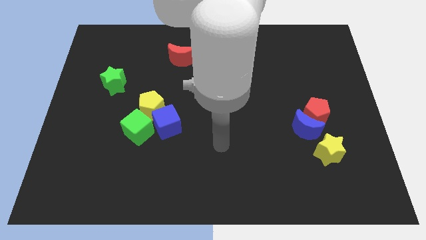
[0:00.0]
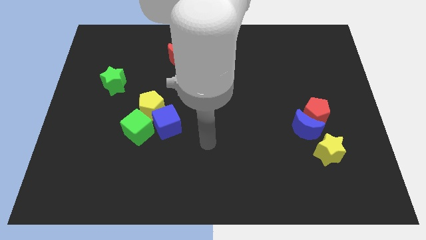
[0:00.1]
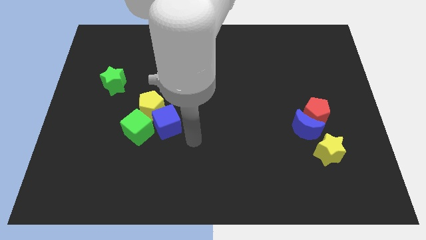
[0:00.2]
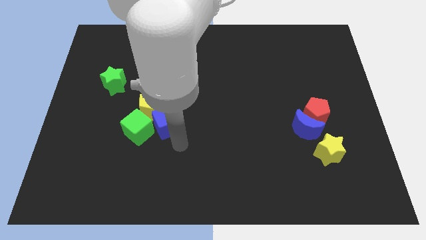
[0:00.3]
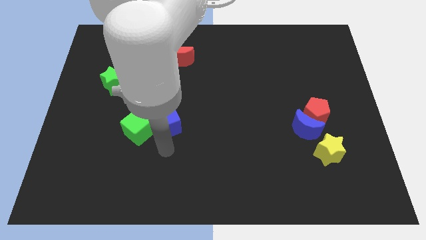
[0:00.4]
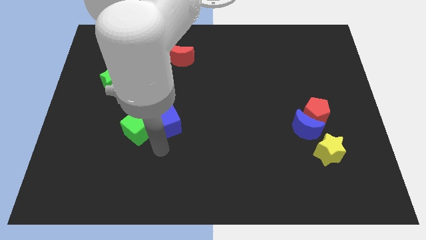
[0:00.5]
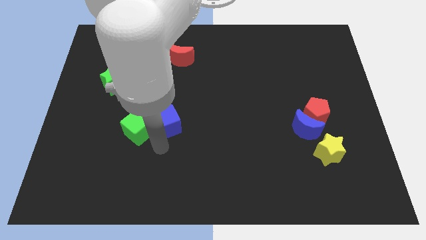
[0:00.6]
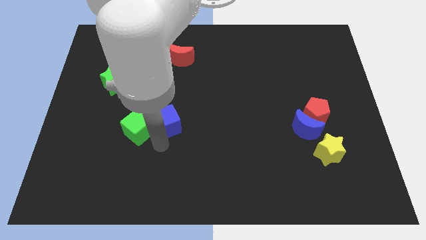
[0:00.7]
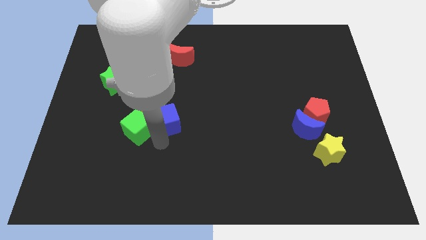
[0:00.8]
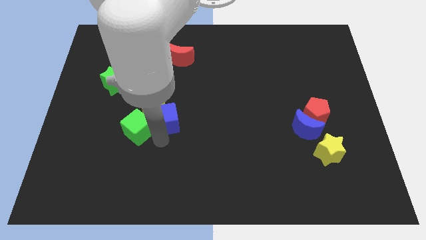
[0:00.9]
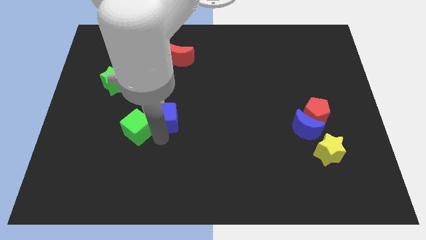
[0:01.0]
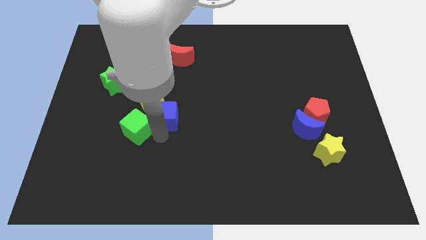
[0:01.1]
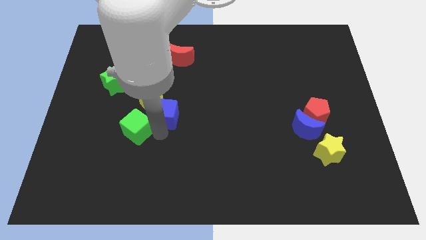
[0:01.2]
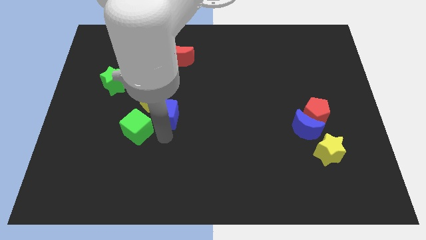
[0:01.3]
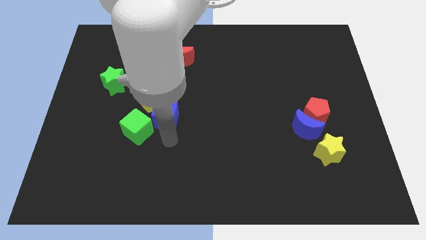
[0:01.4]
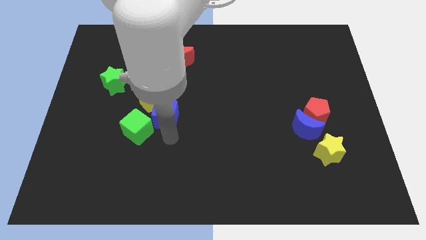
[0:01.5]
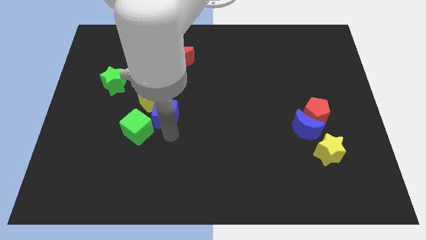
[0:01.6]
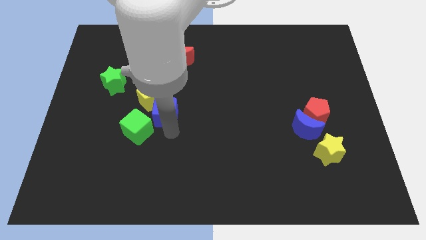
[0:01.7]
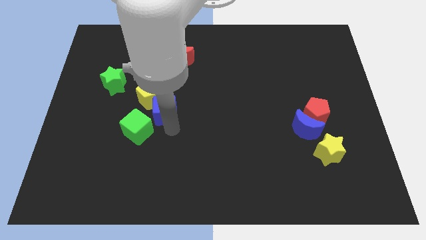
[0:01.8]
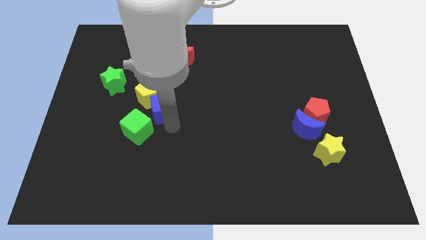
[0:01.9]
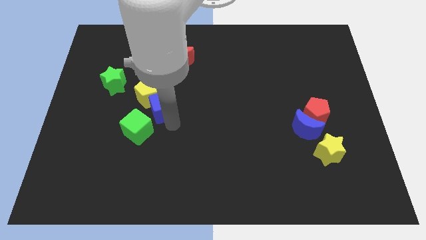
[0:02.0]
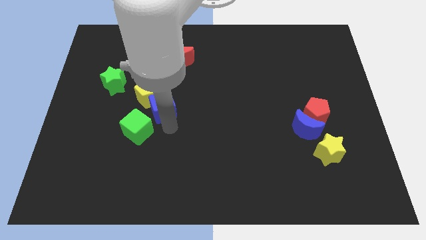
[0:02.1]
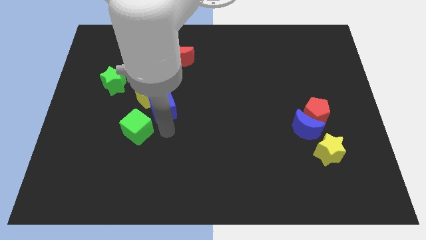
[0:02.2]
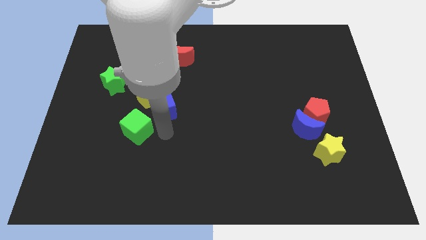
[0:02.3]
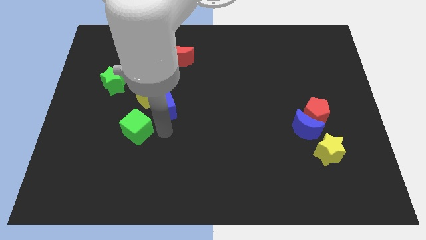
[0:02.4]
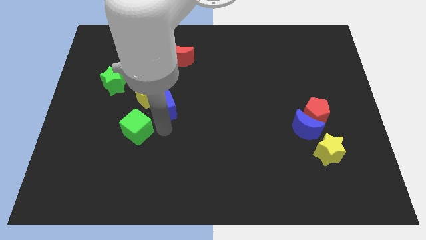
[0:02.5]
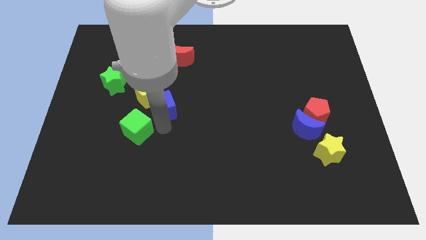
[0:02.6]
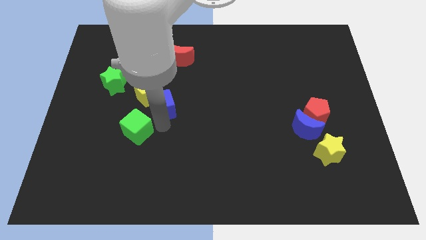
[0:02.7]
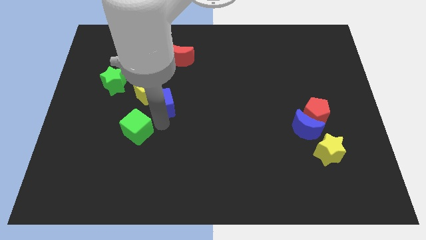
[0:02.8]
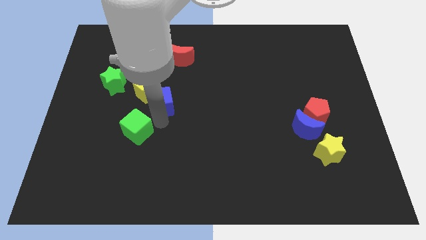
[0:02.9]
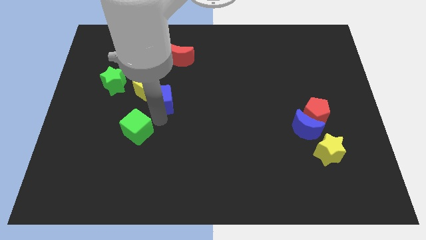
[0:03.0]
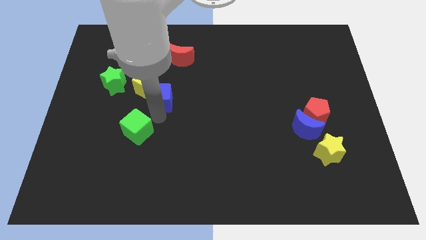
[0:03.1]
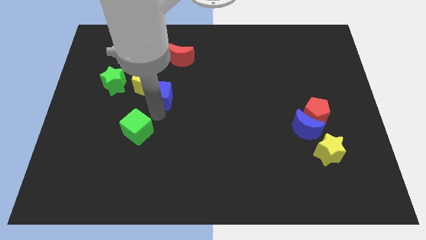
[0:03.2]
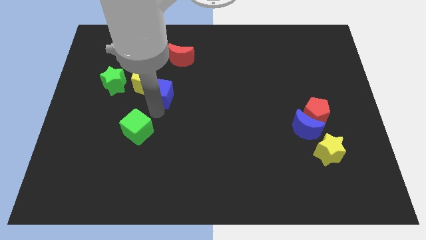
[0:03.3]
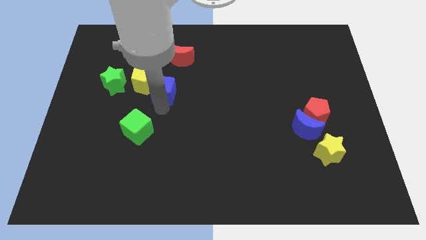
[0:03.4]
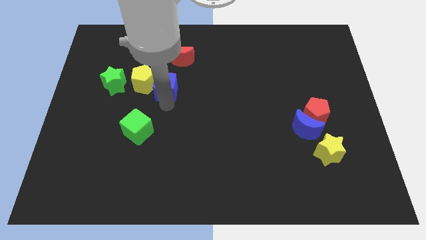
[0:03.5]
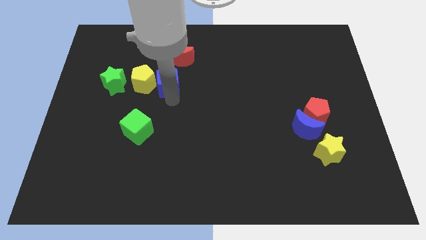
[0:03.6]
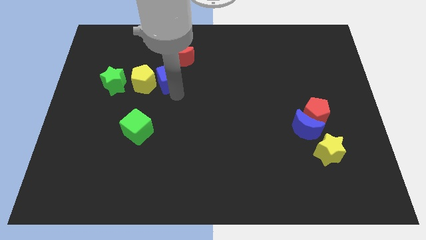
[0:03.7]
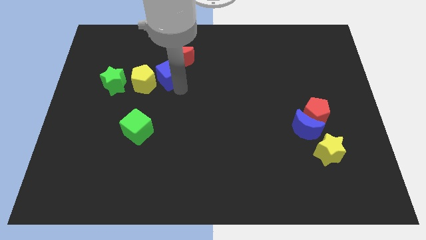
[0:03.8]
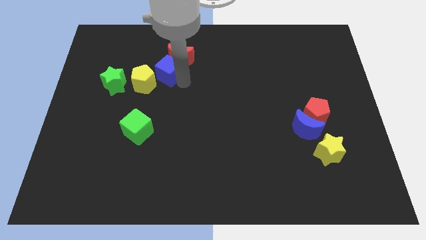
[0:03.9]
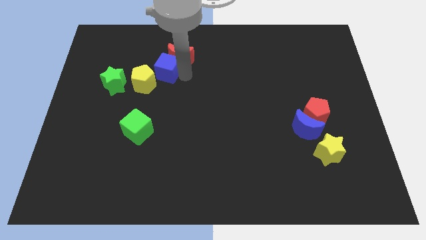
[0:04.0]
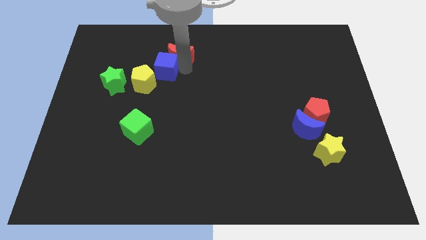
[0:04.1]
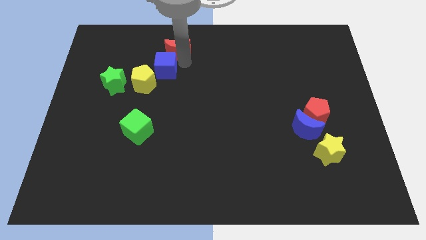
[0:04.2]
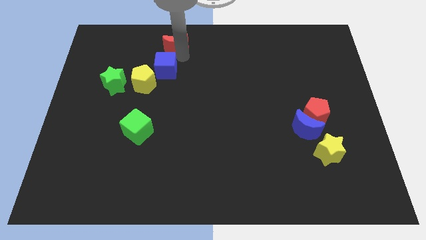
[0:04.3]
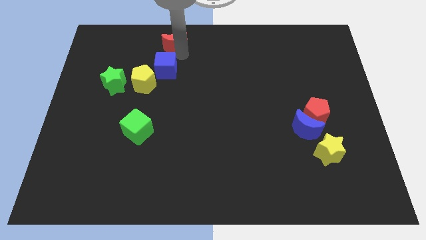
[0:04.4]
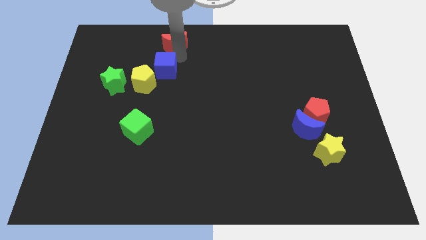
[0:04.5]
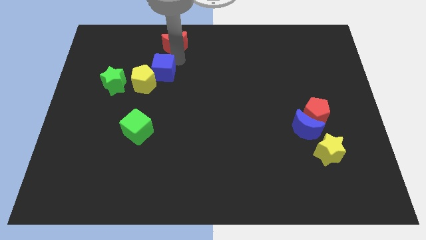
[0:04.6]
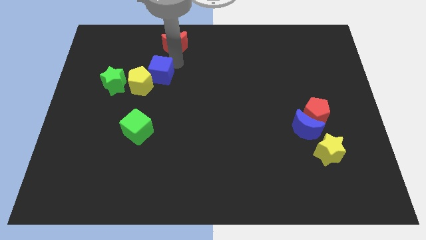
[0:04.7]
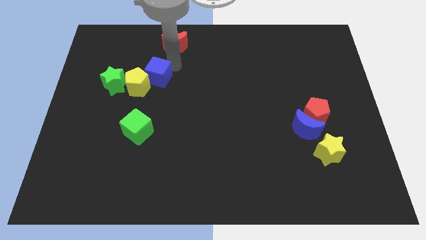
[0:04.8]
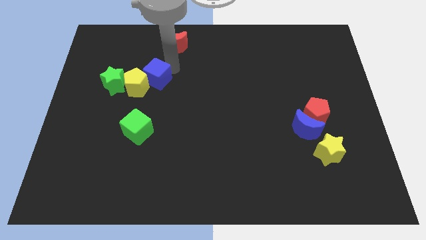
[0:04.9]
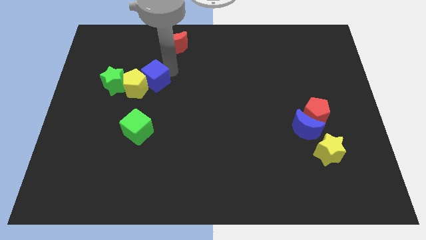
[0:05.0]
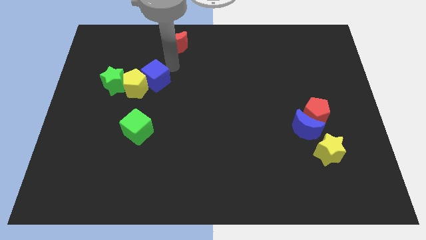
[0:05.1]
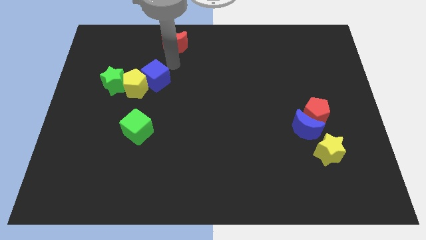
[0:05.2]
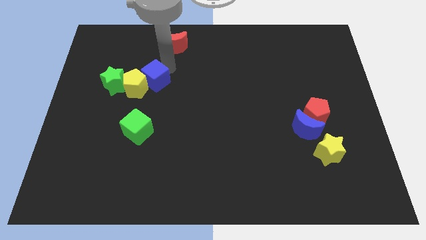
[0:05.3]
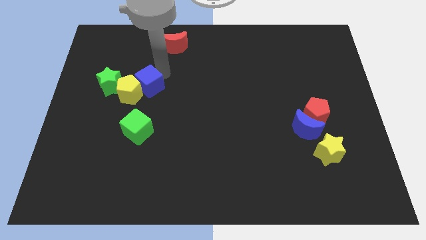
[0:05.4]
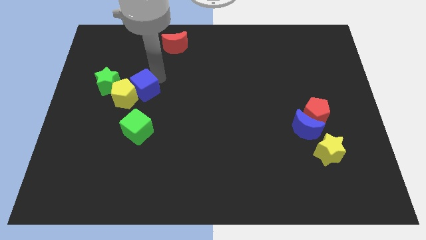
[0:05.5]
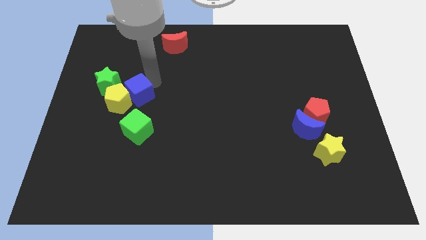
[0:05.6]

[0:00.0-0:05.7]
move the blue cube to the bottom right side of the green star

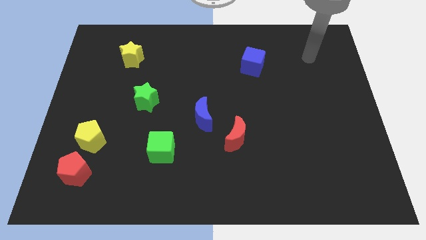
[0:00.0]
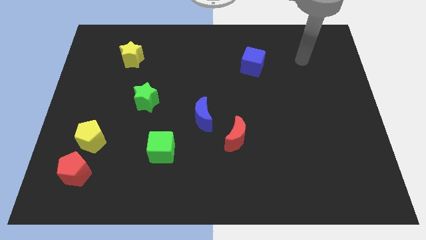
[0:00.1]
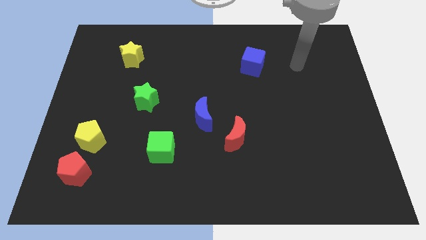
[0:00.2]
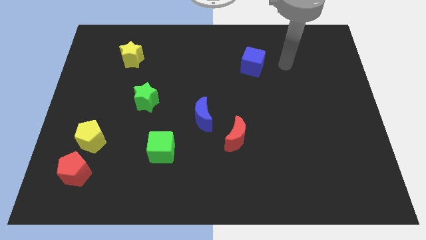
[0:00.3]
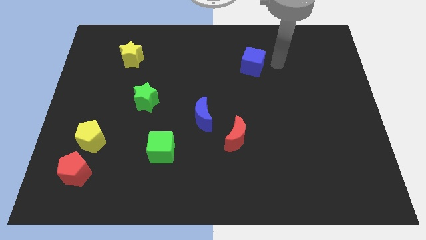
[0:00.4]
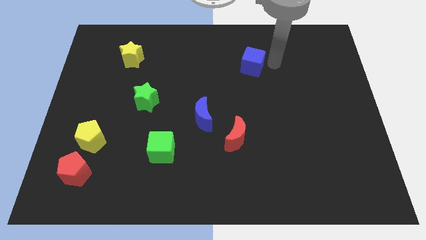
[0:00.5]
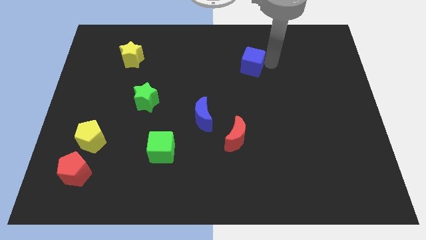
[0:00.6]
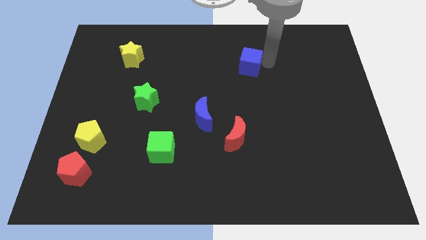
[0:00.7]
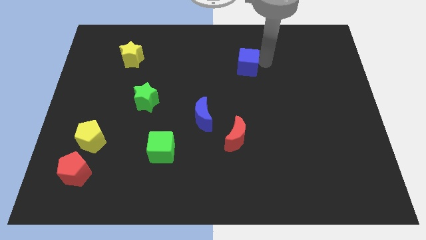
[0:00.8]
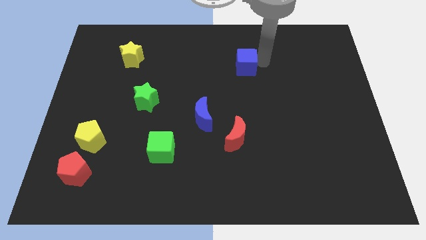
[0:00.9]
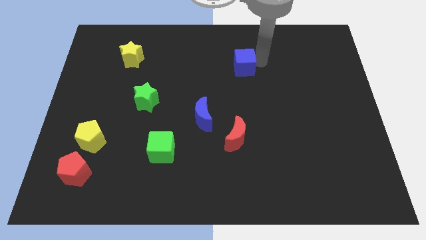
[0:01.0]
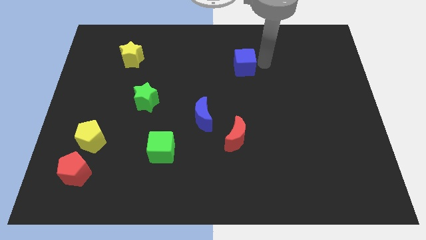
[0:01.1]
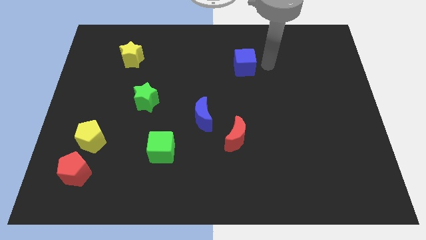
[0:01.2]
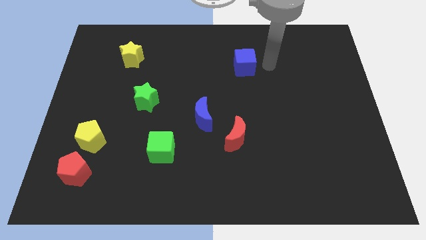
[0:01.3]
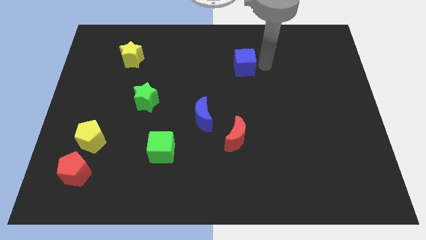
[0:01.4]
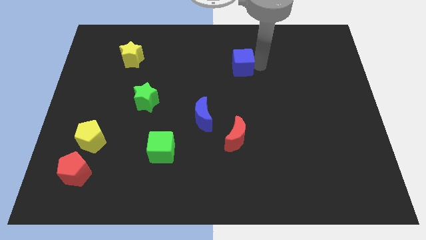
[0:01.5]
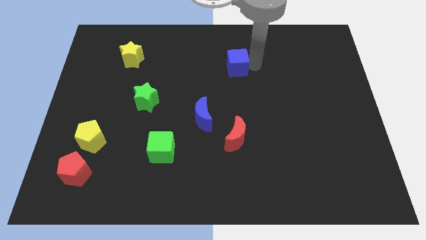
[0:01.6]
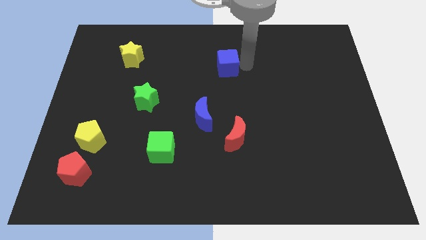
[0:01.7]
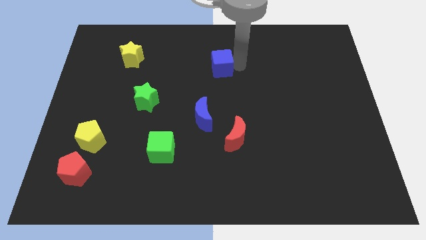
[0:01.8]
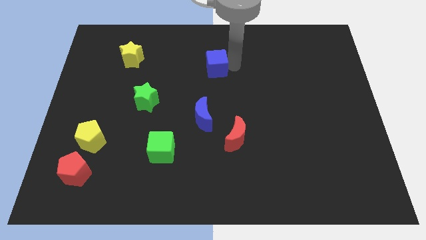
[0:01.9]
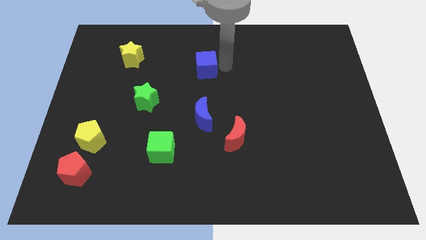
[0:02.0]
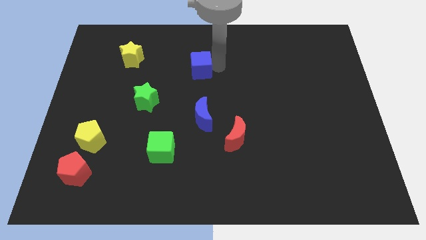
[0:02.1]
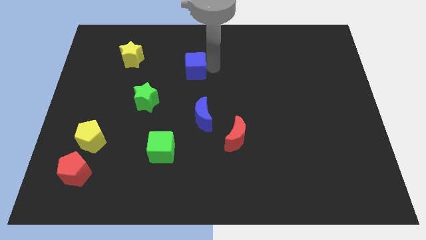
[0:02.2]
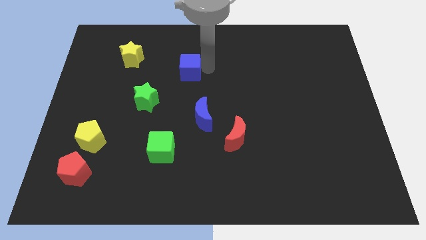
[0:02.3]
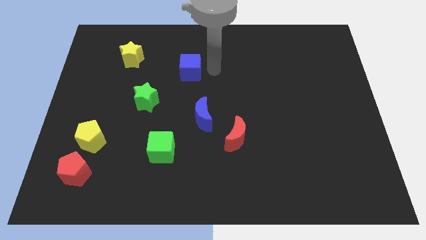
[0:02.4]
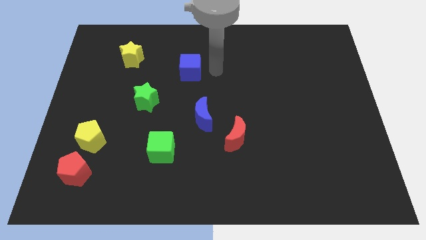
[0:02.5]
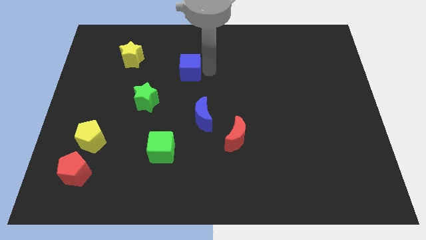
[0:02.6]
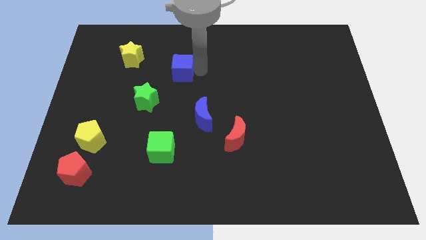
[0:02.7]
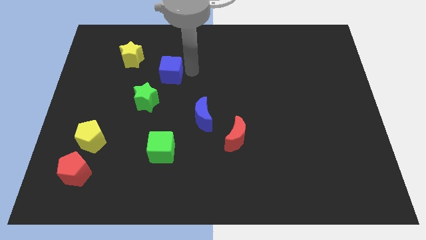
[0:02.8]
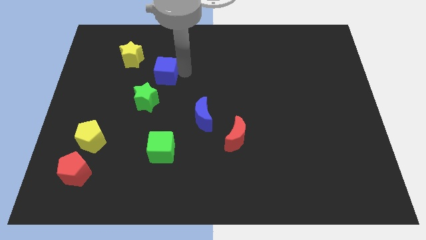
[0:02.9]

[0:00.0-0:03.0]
put the blue cube to the top side of the green star
